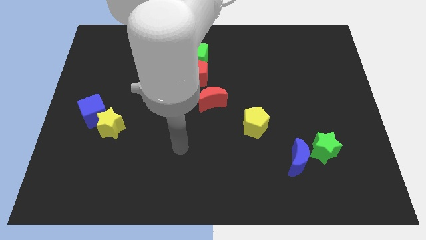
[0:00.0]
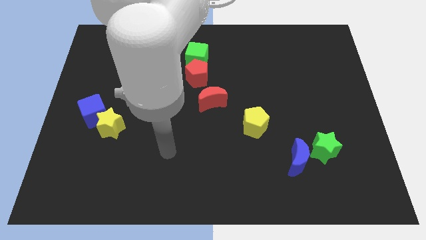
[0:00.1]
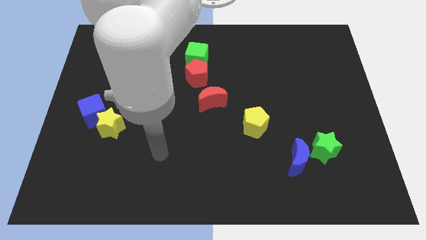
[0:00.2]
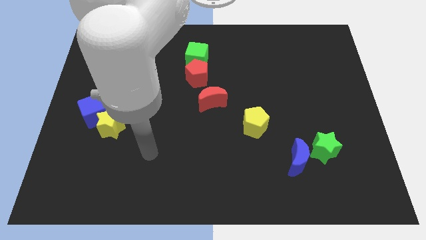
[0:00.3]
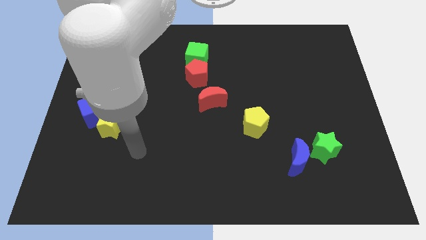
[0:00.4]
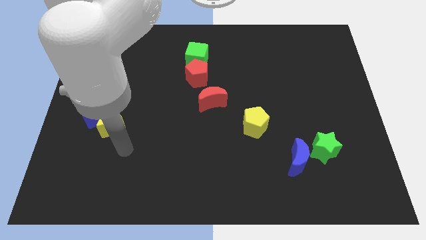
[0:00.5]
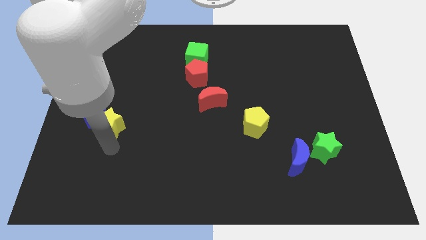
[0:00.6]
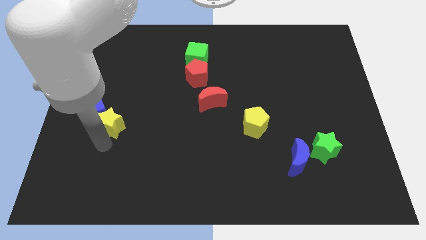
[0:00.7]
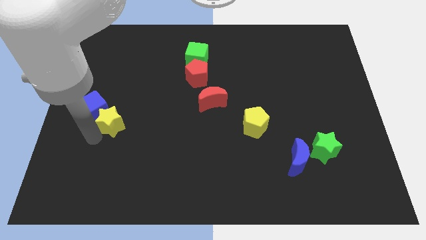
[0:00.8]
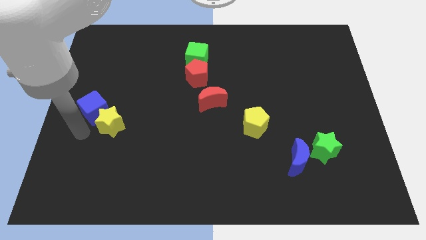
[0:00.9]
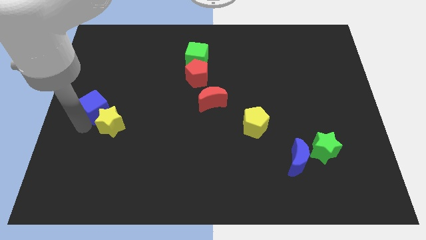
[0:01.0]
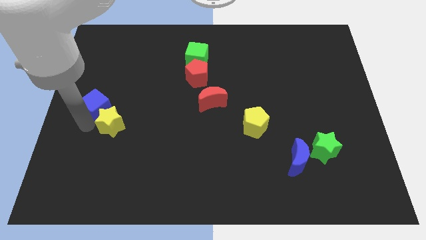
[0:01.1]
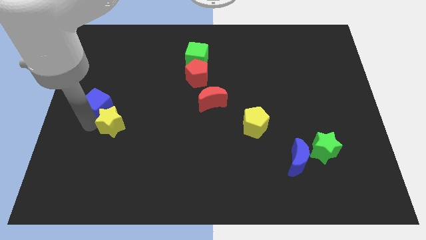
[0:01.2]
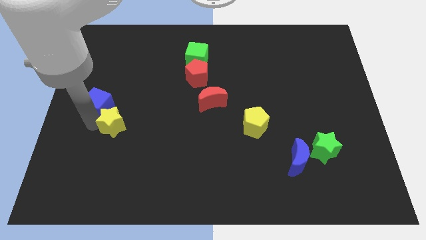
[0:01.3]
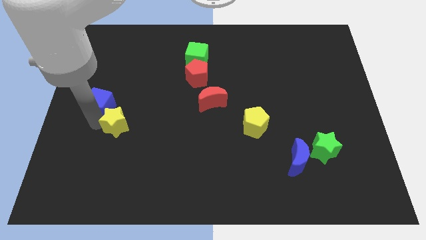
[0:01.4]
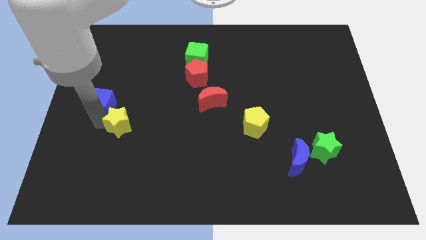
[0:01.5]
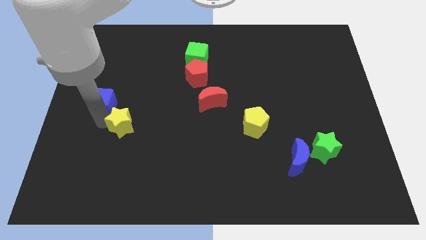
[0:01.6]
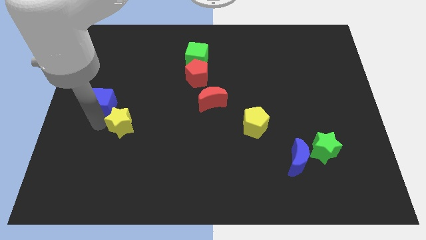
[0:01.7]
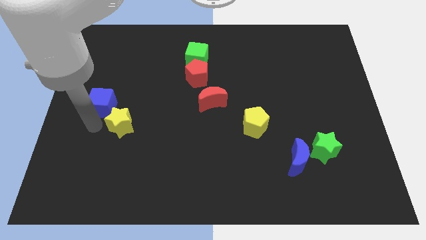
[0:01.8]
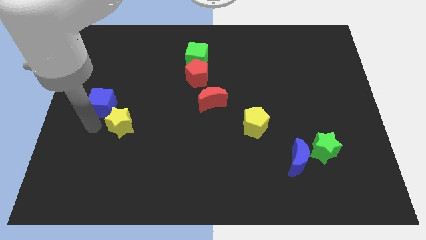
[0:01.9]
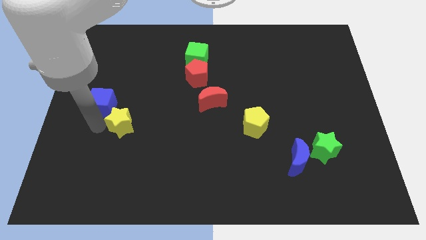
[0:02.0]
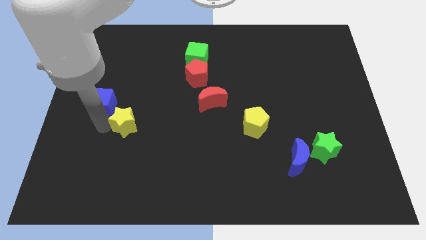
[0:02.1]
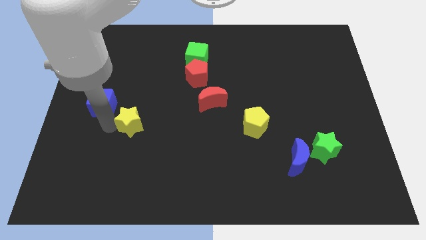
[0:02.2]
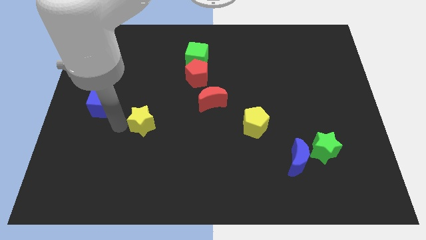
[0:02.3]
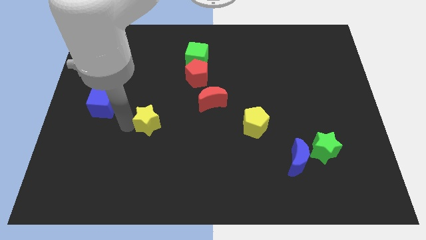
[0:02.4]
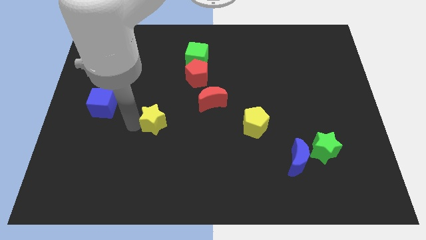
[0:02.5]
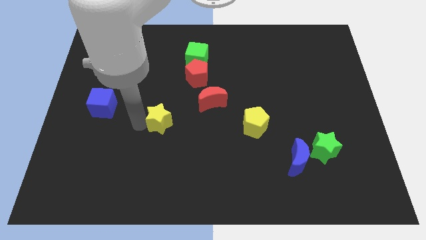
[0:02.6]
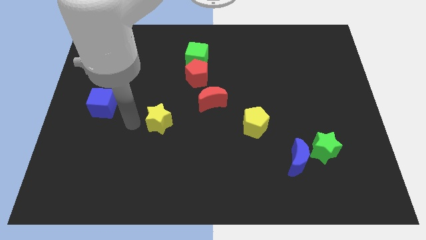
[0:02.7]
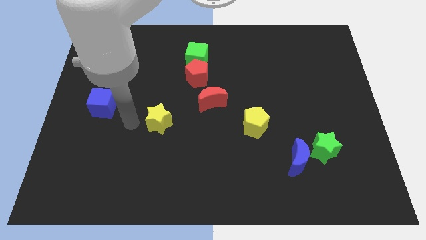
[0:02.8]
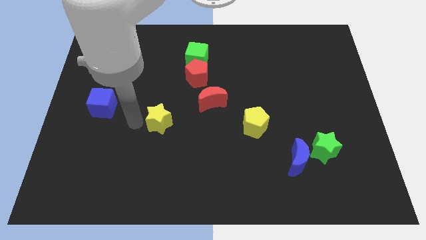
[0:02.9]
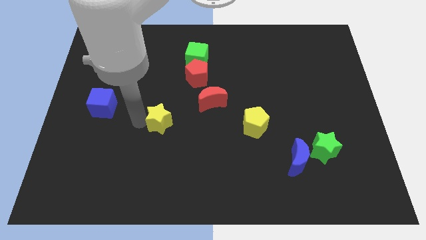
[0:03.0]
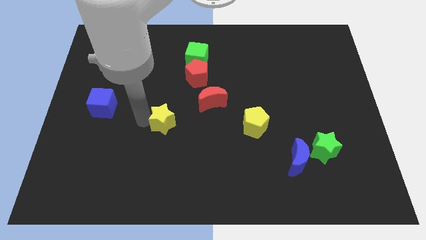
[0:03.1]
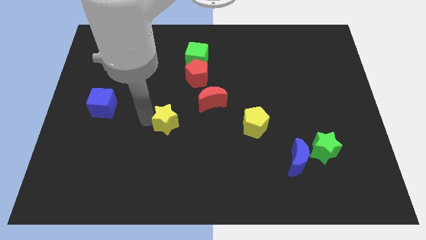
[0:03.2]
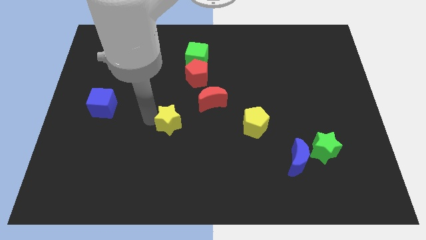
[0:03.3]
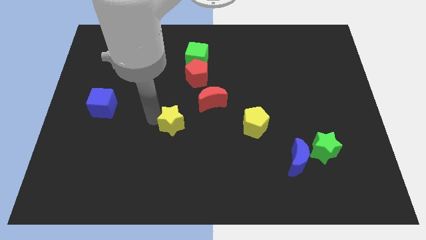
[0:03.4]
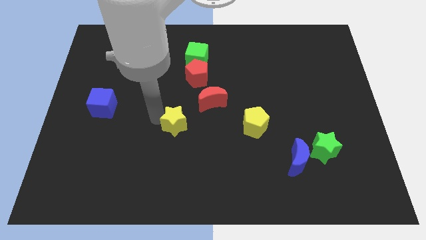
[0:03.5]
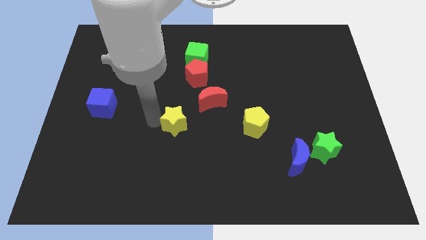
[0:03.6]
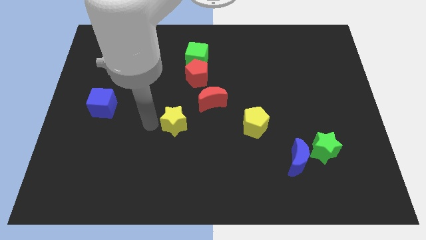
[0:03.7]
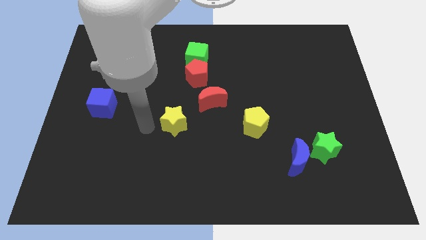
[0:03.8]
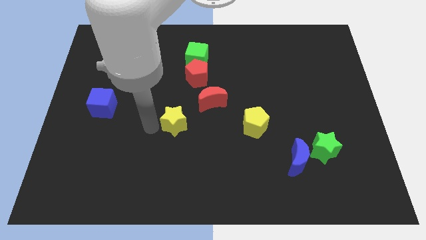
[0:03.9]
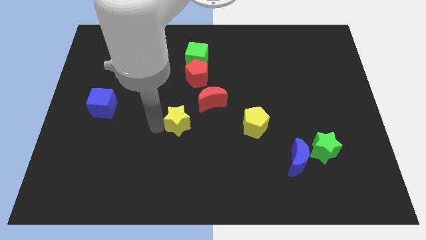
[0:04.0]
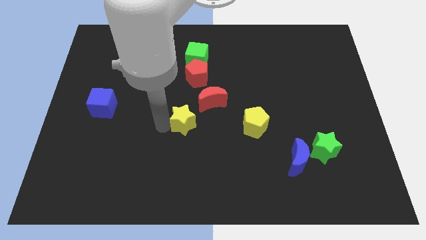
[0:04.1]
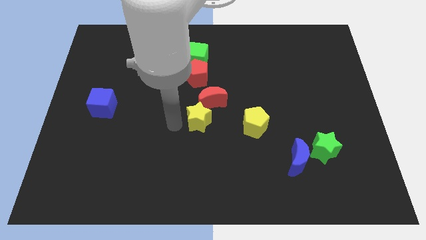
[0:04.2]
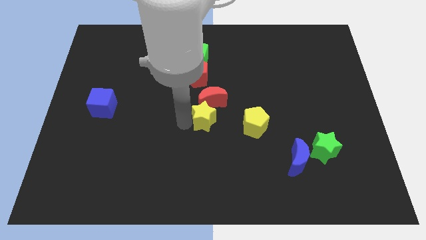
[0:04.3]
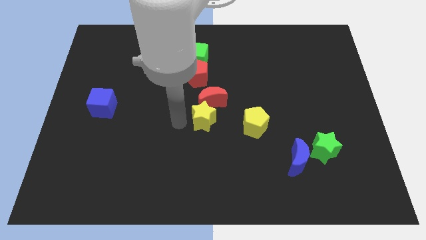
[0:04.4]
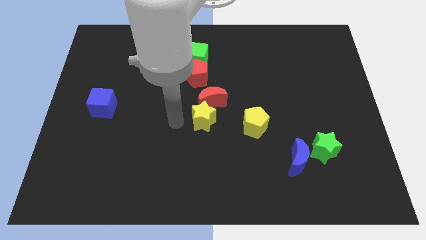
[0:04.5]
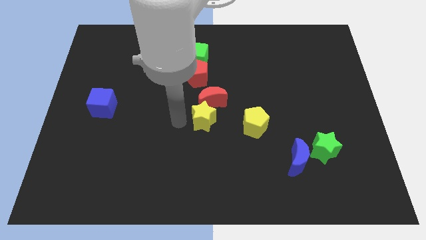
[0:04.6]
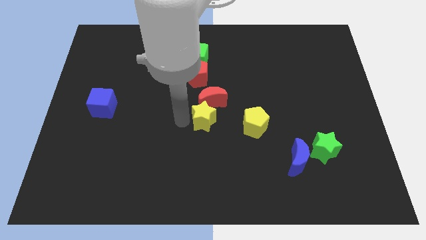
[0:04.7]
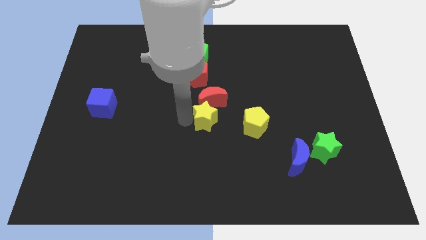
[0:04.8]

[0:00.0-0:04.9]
slide the yellow star diagonally down and to the right of the red moon

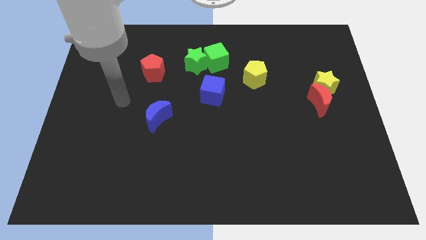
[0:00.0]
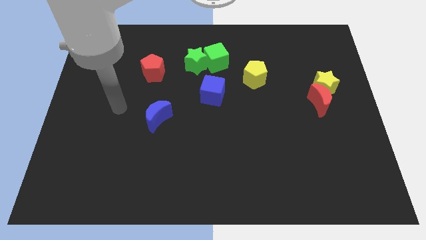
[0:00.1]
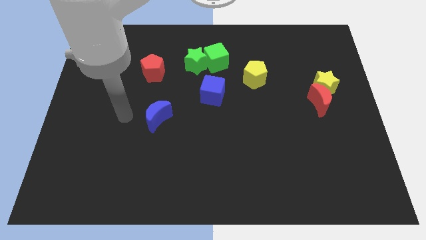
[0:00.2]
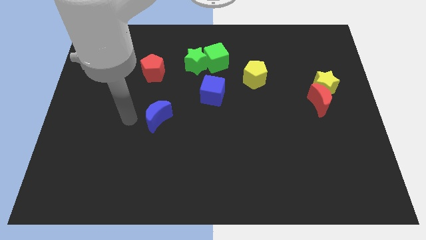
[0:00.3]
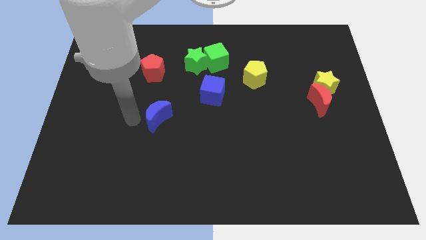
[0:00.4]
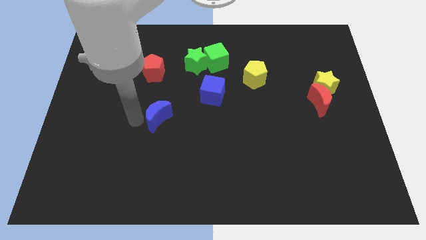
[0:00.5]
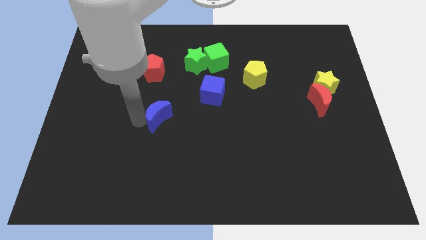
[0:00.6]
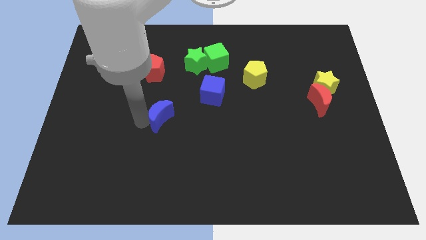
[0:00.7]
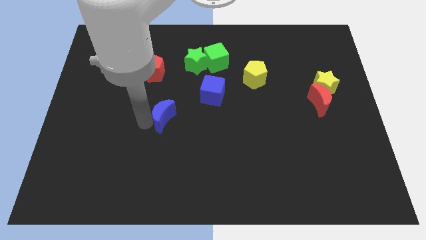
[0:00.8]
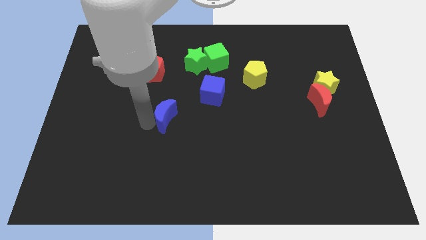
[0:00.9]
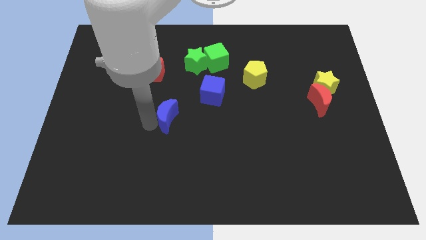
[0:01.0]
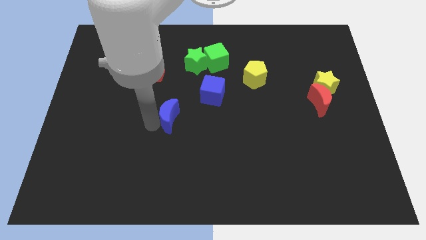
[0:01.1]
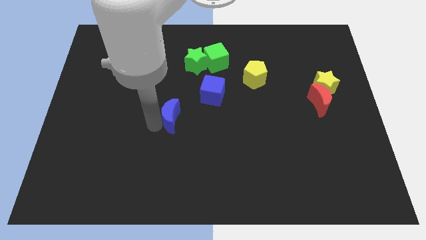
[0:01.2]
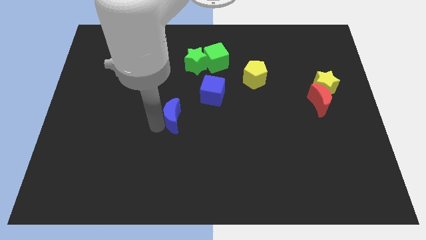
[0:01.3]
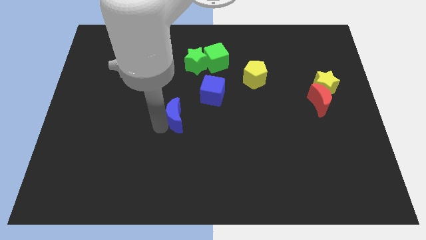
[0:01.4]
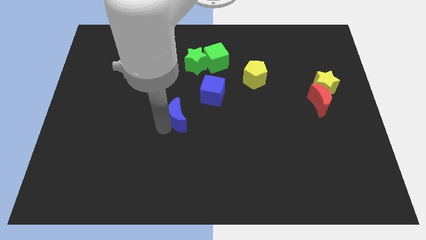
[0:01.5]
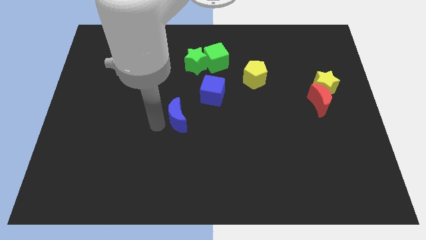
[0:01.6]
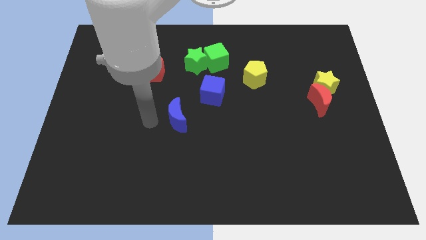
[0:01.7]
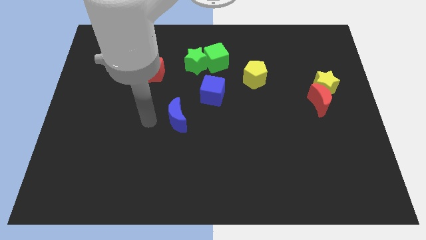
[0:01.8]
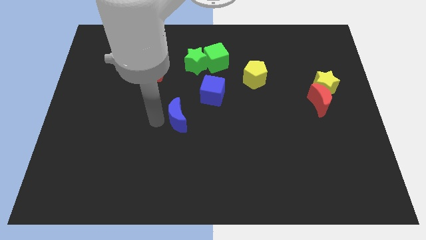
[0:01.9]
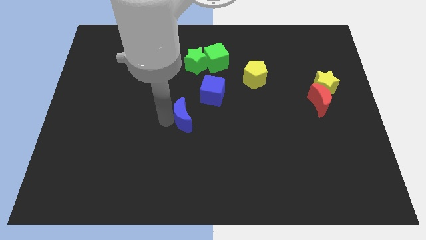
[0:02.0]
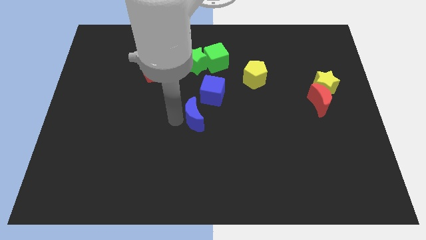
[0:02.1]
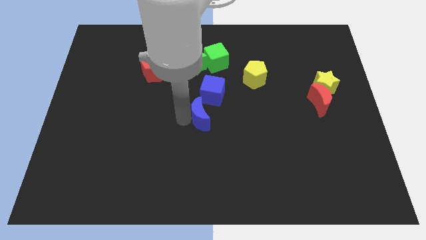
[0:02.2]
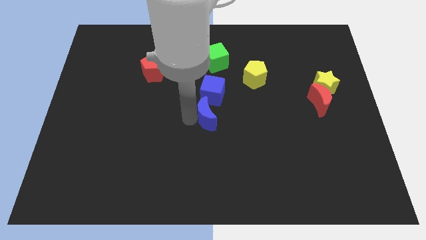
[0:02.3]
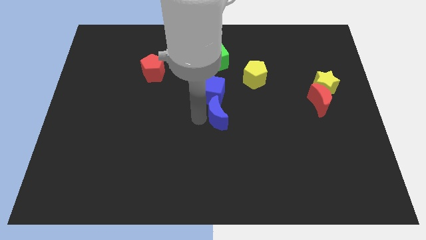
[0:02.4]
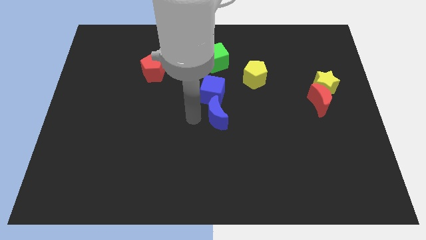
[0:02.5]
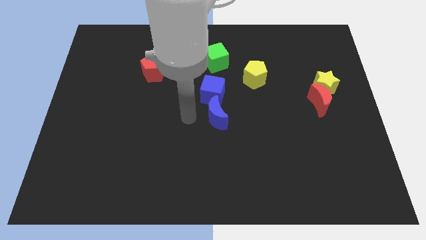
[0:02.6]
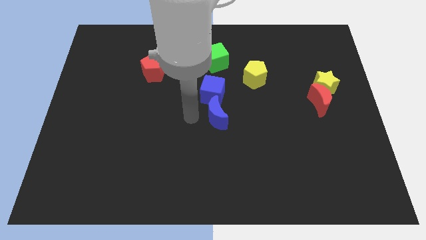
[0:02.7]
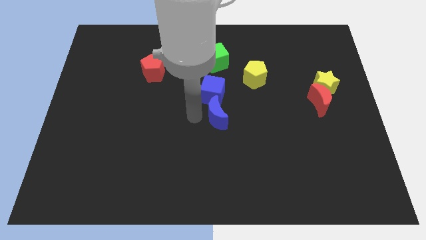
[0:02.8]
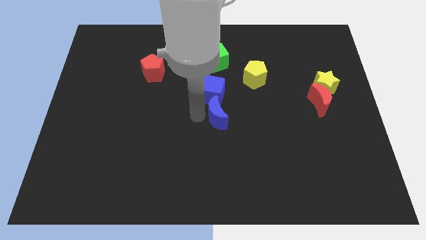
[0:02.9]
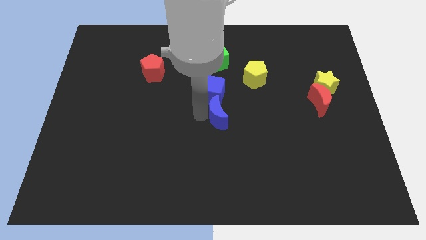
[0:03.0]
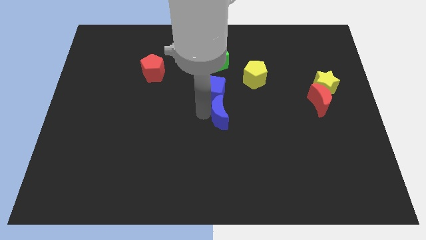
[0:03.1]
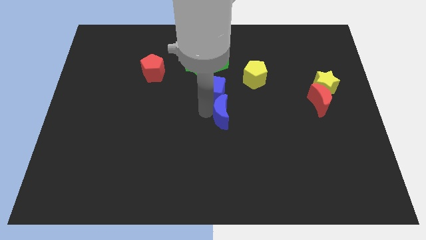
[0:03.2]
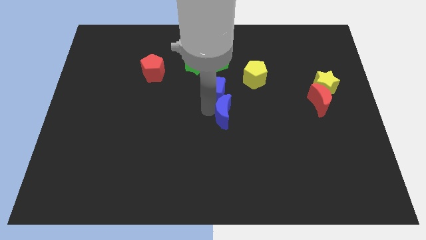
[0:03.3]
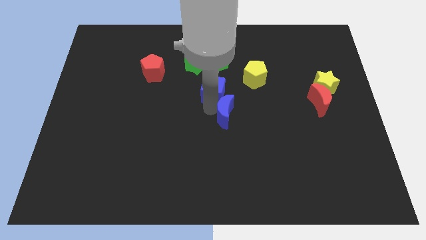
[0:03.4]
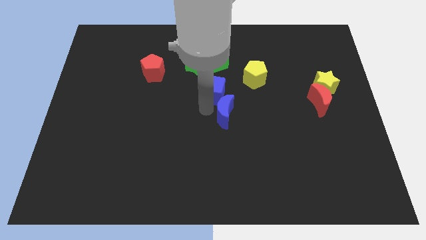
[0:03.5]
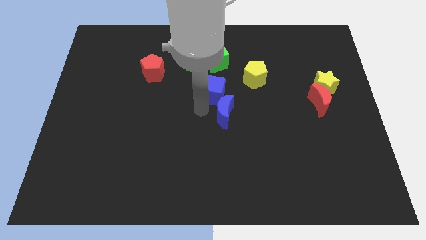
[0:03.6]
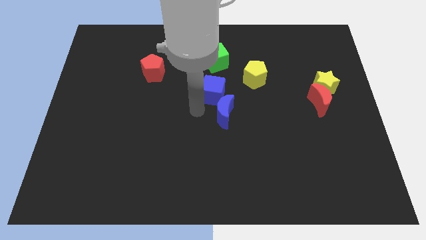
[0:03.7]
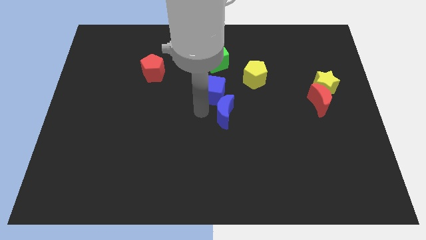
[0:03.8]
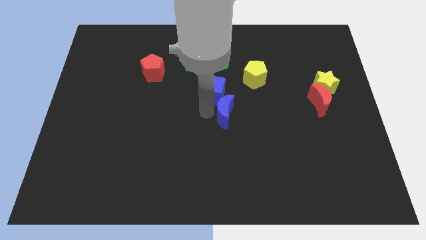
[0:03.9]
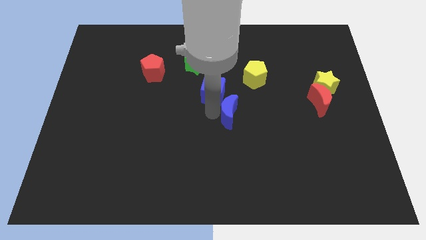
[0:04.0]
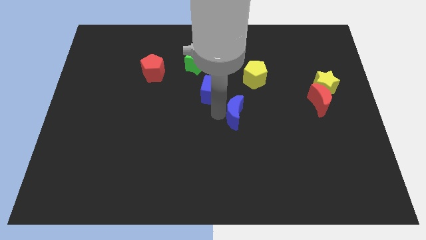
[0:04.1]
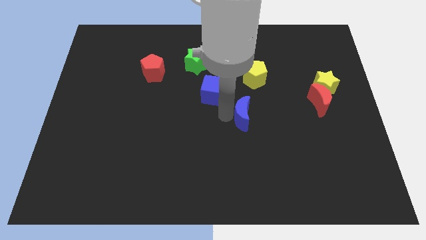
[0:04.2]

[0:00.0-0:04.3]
put the blue moon to the bottom side of the yellow pentagon
